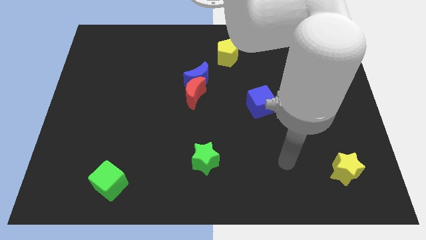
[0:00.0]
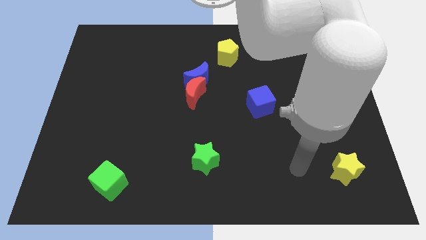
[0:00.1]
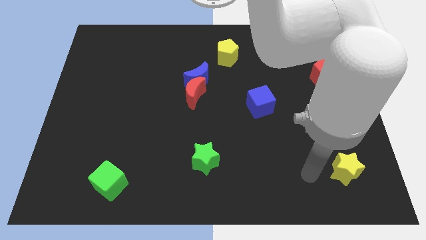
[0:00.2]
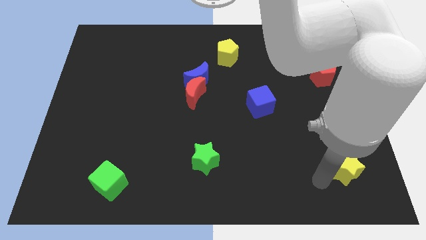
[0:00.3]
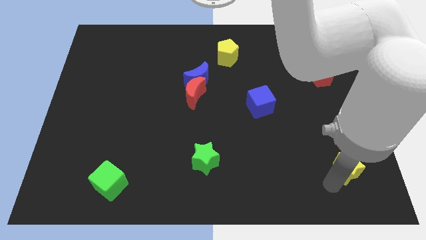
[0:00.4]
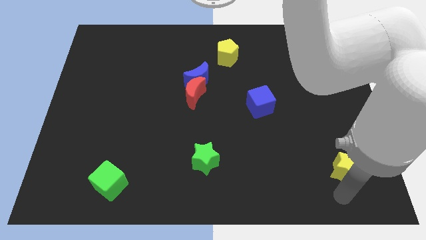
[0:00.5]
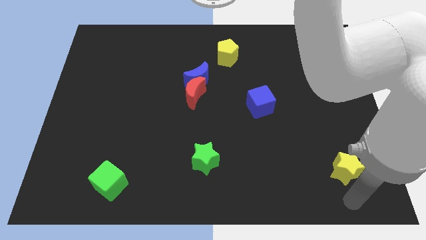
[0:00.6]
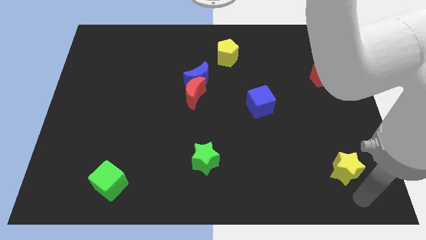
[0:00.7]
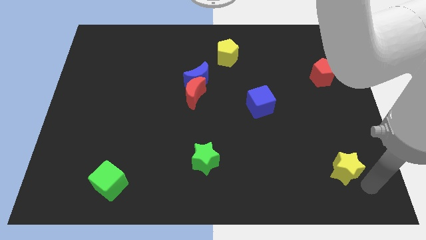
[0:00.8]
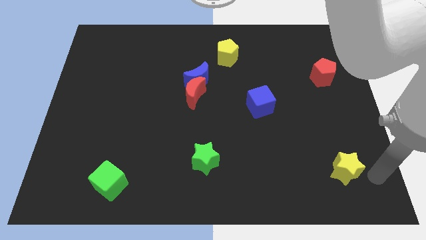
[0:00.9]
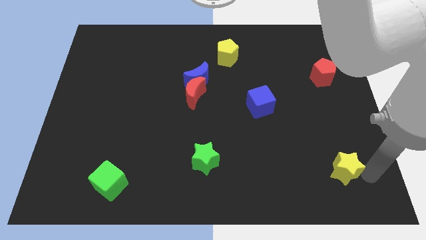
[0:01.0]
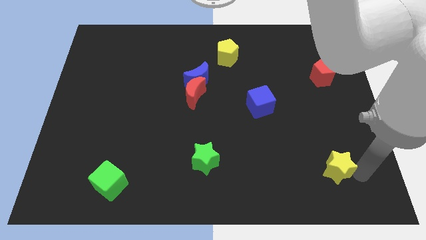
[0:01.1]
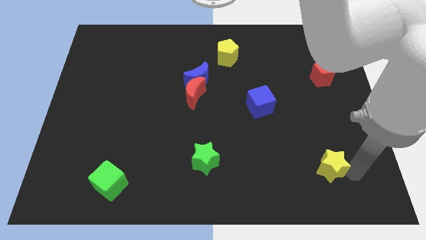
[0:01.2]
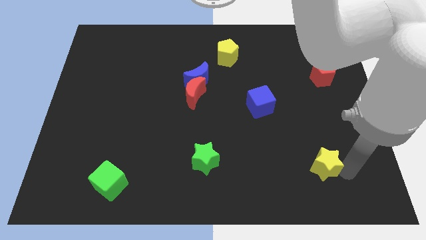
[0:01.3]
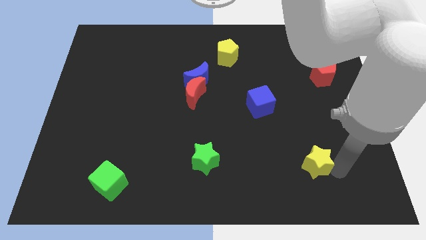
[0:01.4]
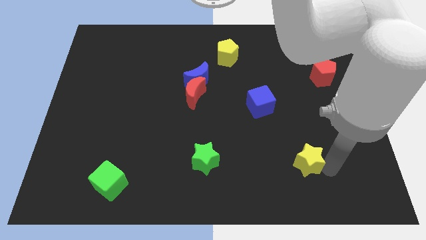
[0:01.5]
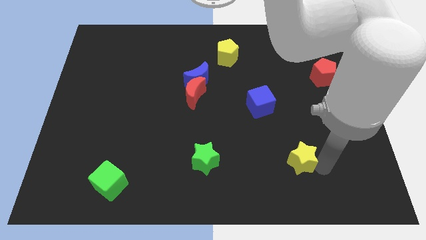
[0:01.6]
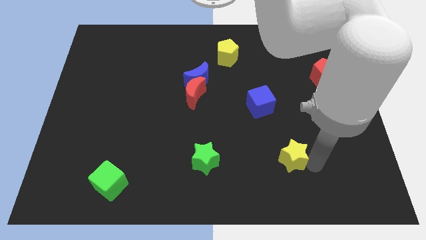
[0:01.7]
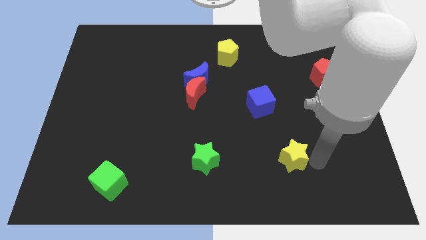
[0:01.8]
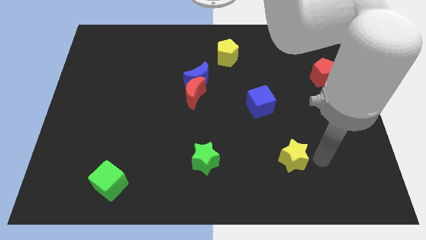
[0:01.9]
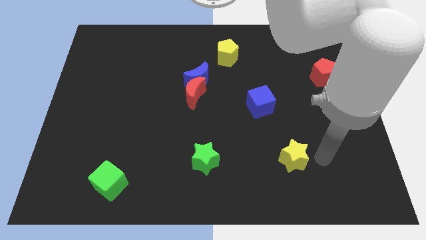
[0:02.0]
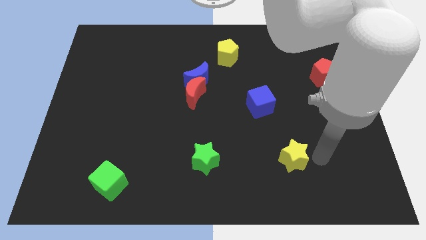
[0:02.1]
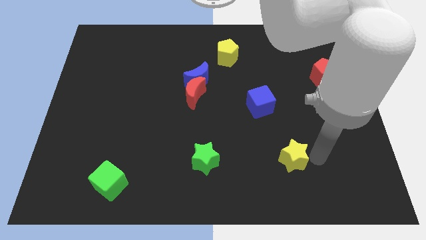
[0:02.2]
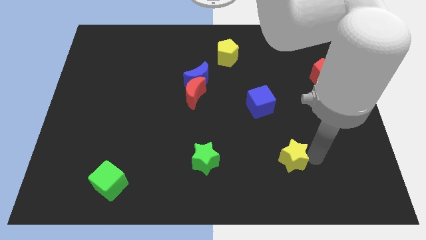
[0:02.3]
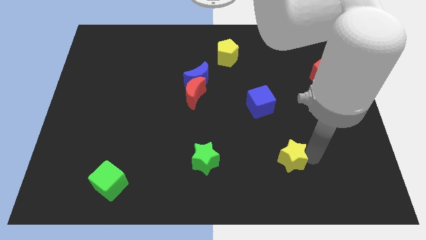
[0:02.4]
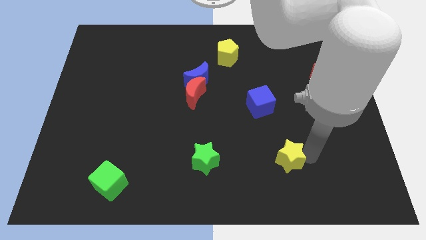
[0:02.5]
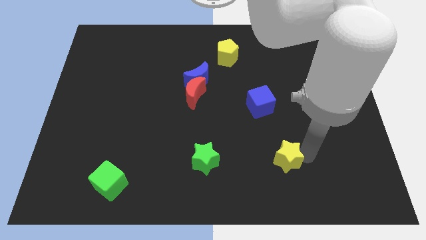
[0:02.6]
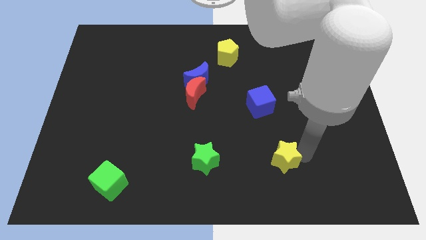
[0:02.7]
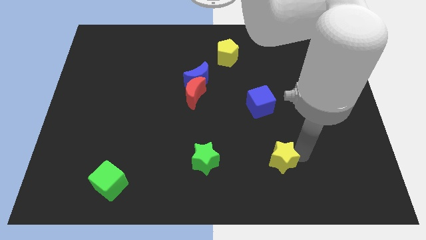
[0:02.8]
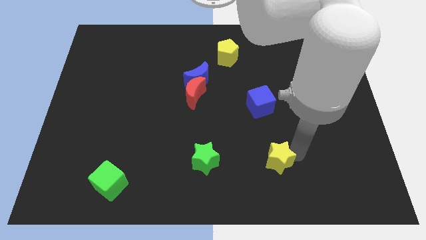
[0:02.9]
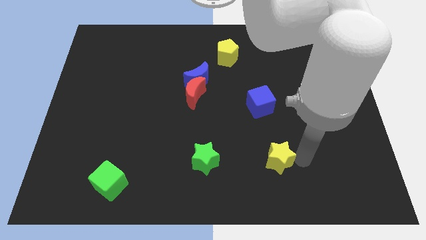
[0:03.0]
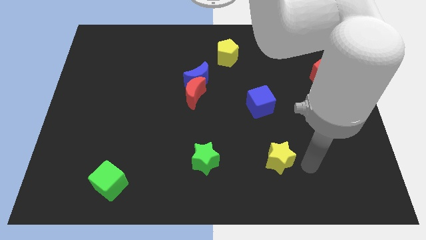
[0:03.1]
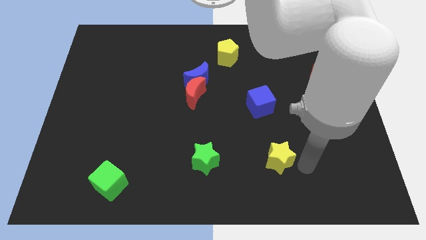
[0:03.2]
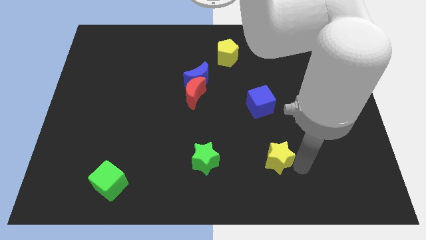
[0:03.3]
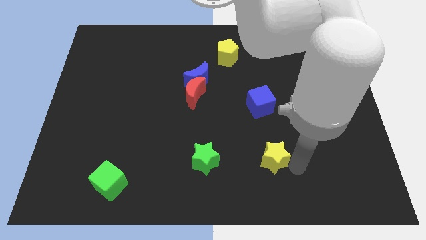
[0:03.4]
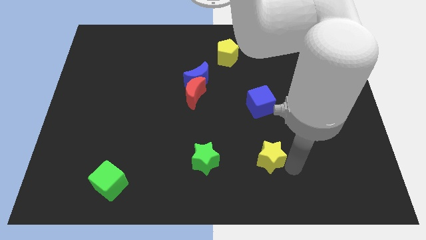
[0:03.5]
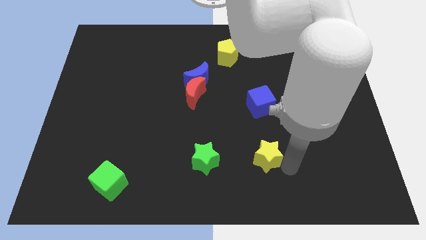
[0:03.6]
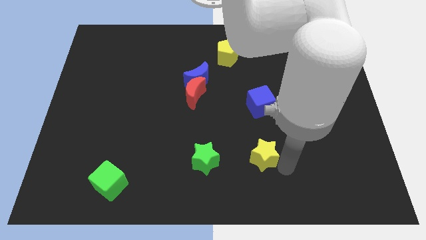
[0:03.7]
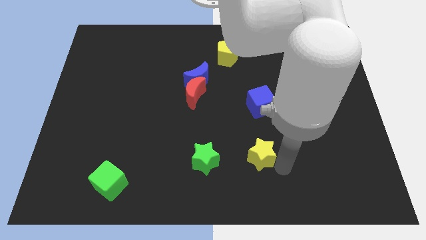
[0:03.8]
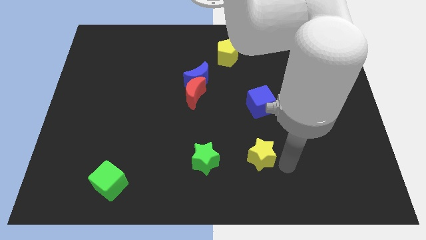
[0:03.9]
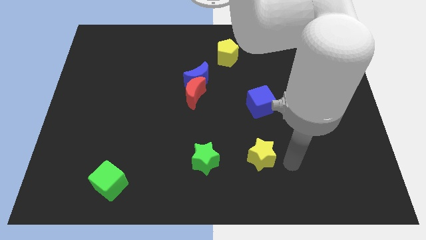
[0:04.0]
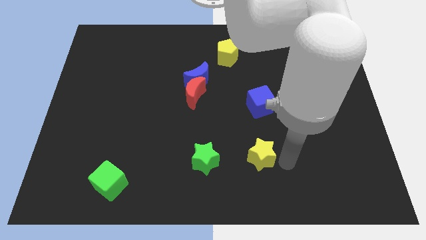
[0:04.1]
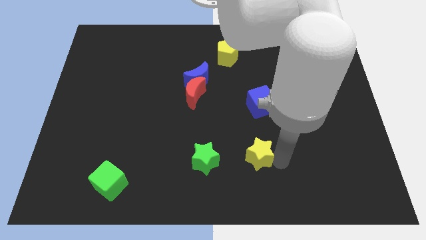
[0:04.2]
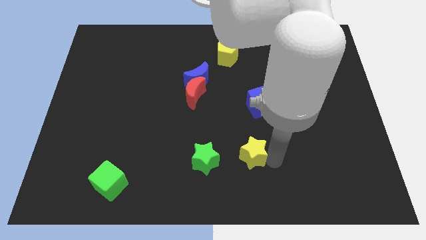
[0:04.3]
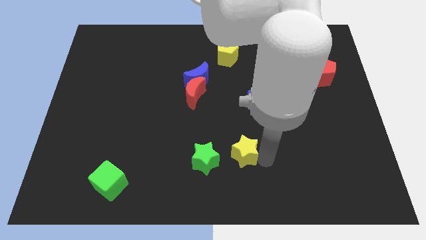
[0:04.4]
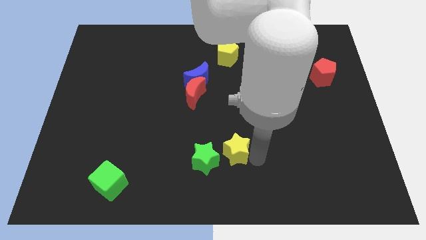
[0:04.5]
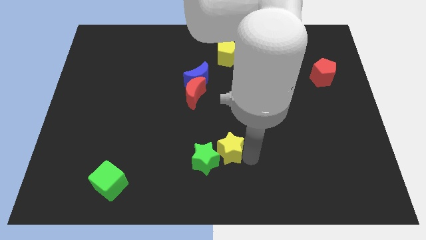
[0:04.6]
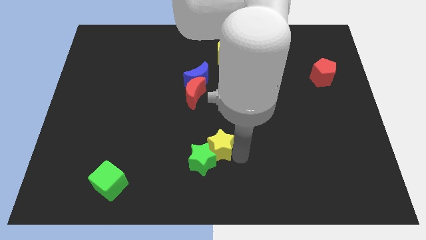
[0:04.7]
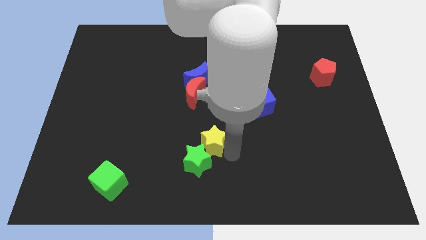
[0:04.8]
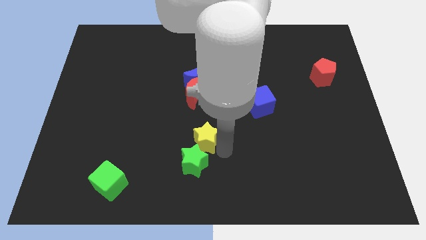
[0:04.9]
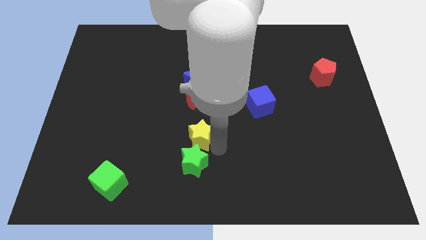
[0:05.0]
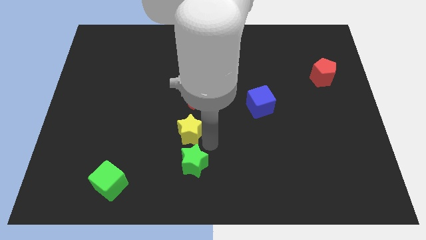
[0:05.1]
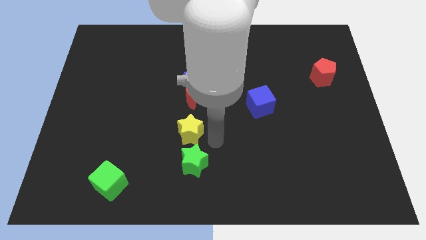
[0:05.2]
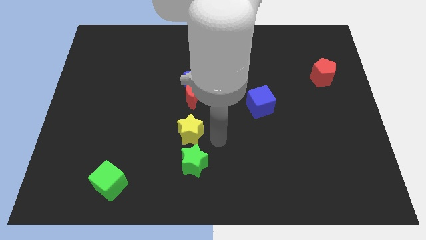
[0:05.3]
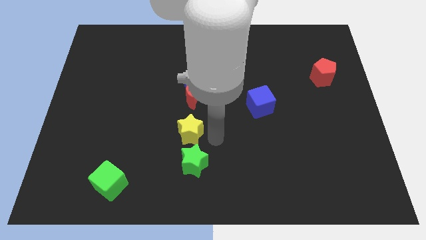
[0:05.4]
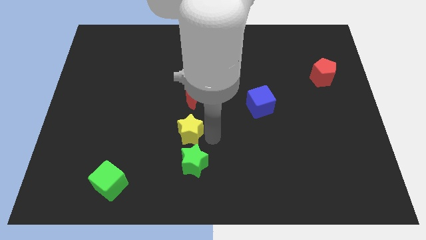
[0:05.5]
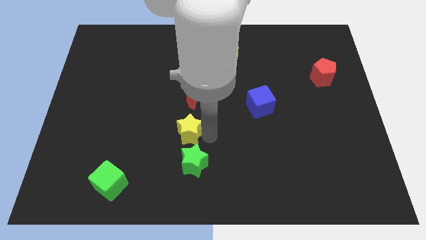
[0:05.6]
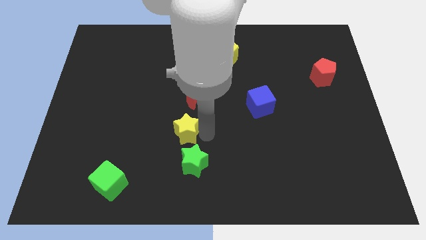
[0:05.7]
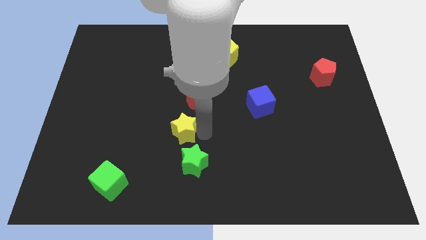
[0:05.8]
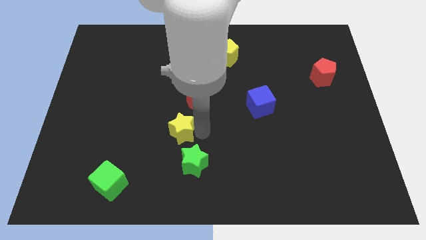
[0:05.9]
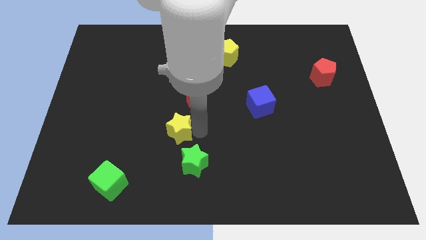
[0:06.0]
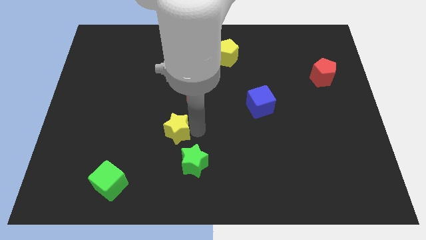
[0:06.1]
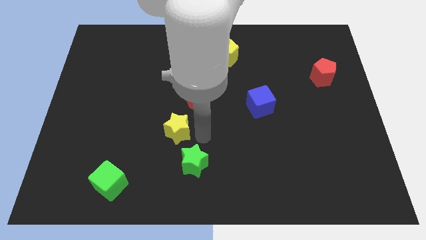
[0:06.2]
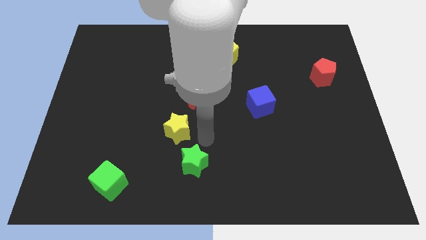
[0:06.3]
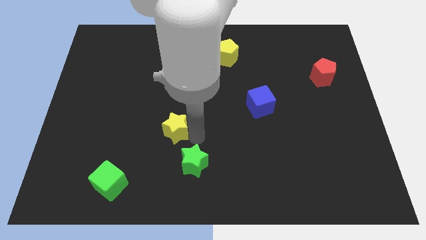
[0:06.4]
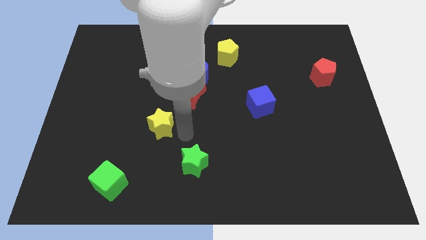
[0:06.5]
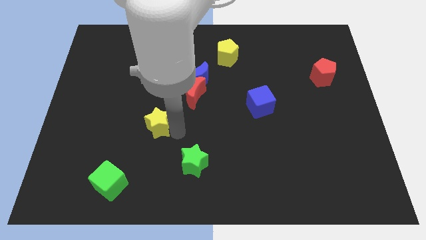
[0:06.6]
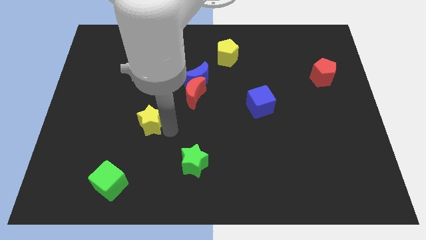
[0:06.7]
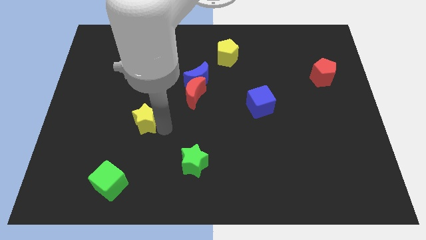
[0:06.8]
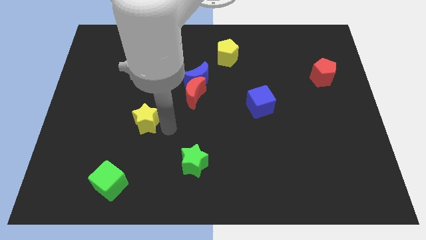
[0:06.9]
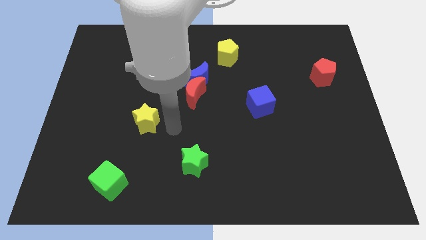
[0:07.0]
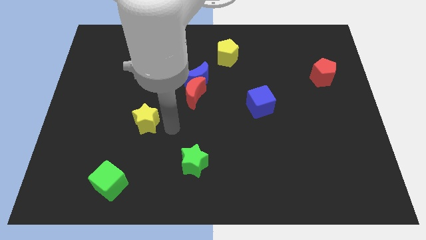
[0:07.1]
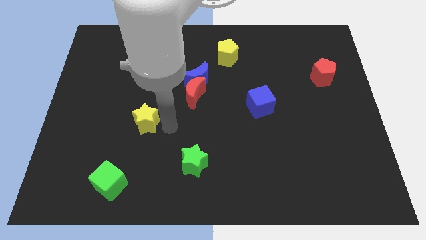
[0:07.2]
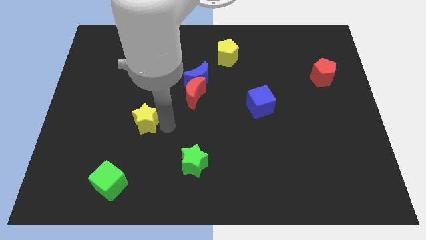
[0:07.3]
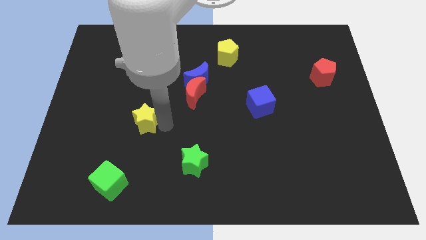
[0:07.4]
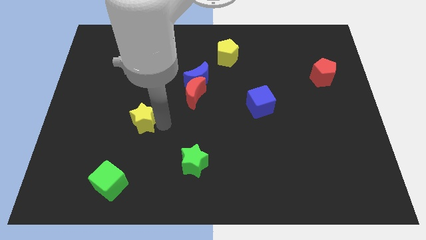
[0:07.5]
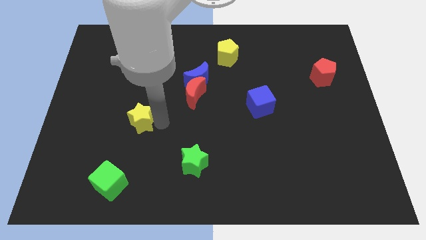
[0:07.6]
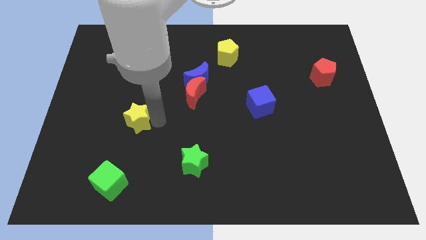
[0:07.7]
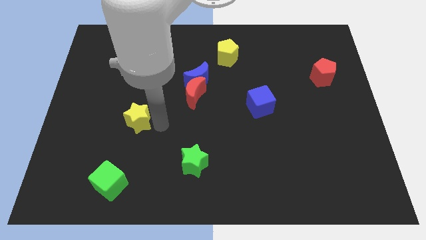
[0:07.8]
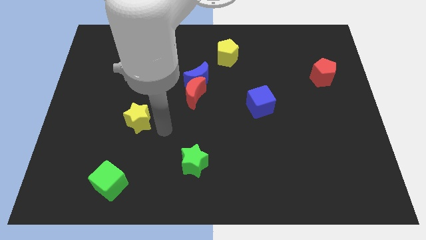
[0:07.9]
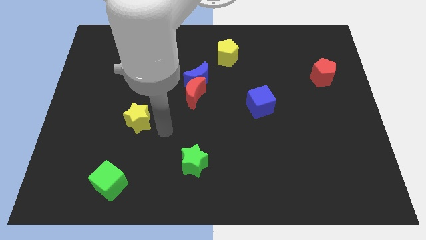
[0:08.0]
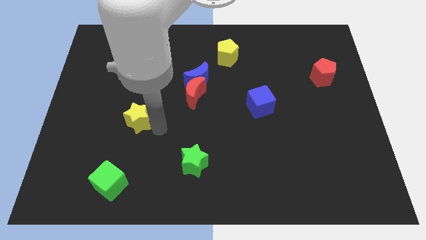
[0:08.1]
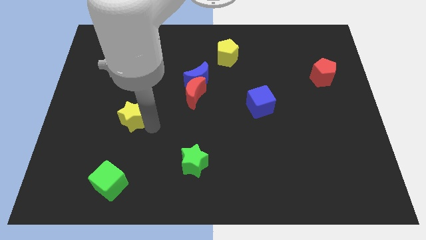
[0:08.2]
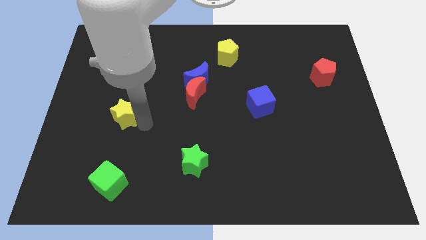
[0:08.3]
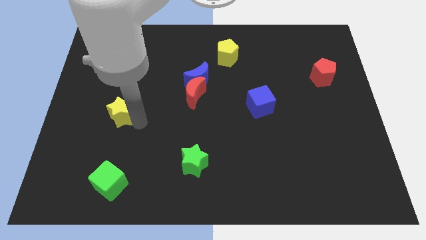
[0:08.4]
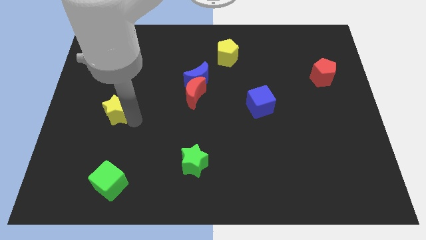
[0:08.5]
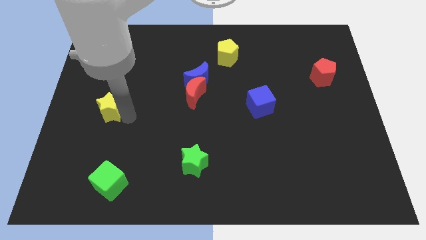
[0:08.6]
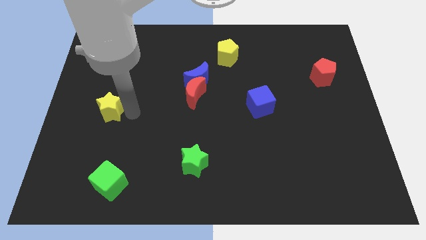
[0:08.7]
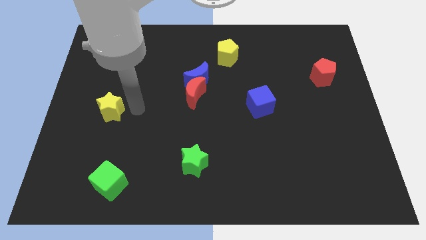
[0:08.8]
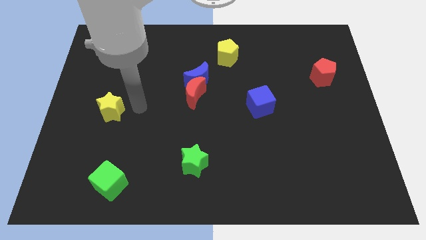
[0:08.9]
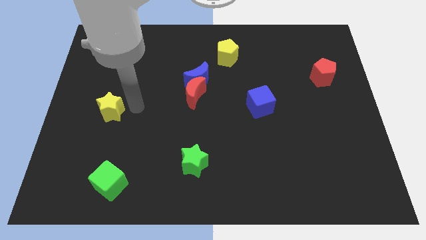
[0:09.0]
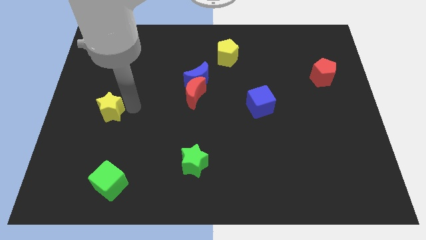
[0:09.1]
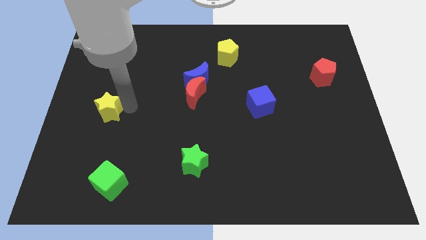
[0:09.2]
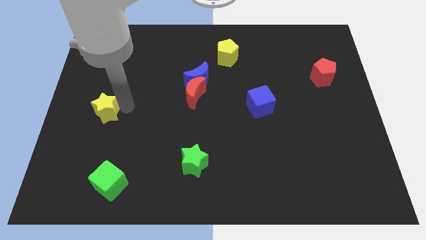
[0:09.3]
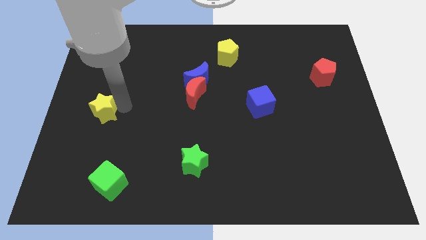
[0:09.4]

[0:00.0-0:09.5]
move the yellow star to the left side
